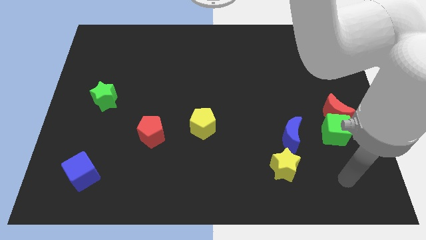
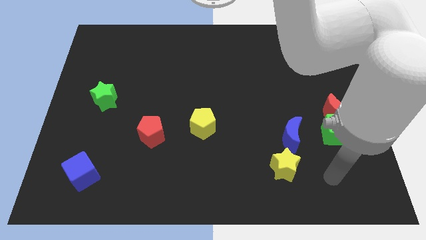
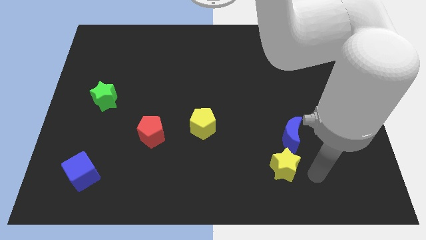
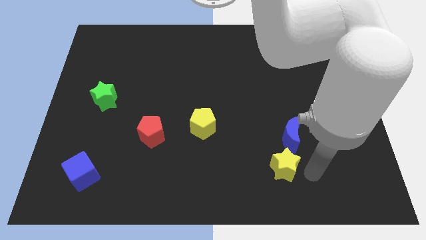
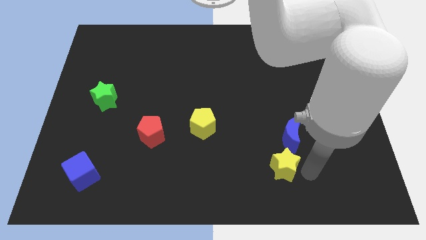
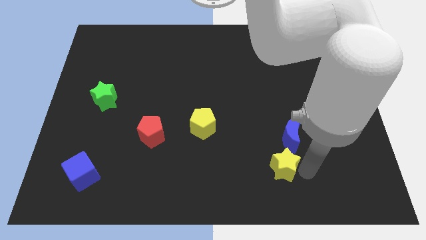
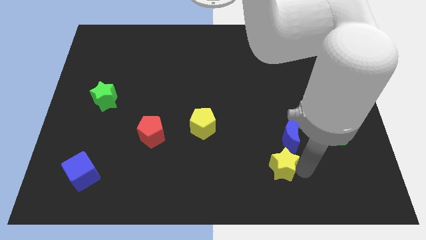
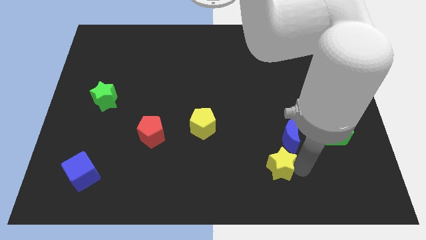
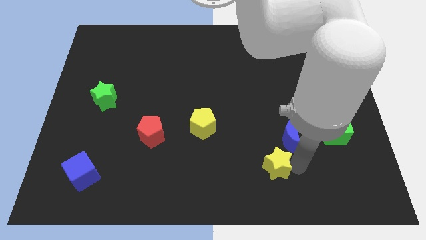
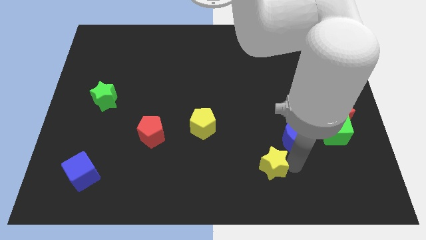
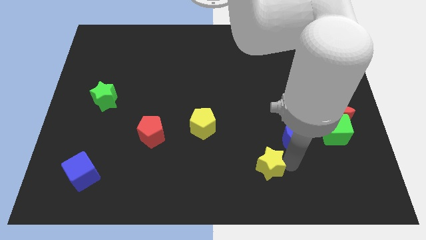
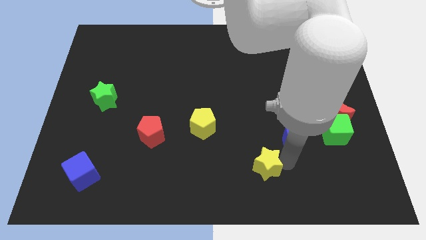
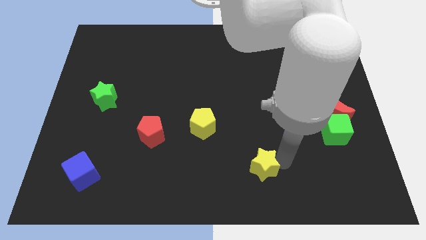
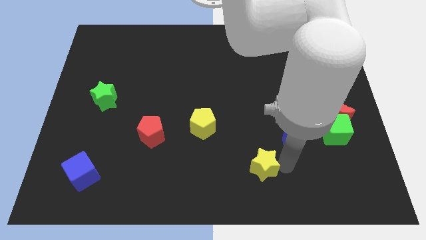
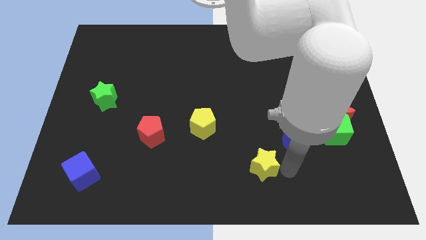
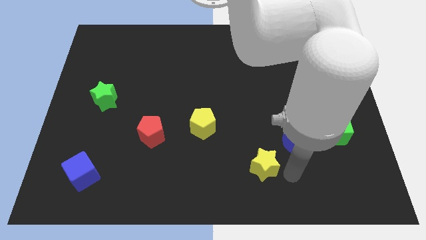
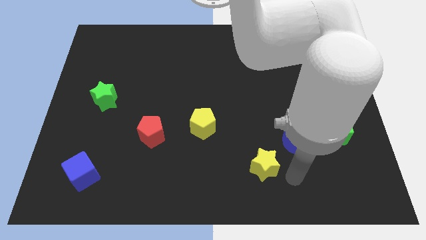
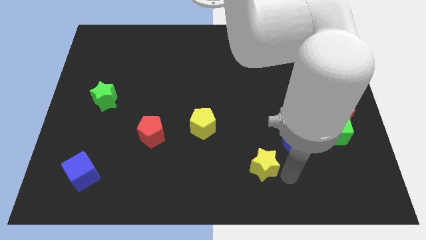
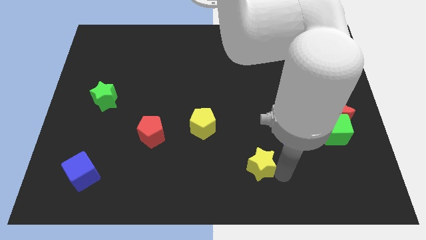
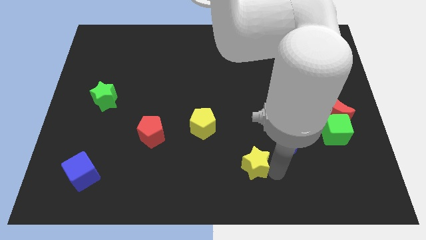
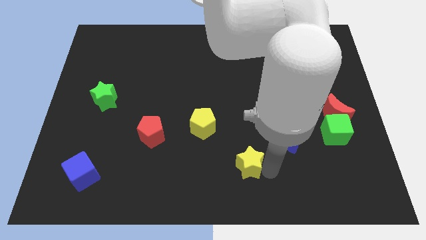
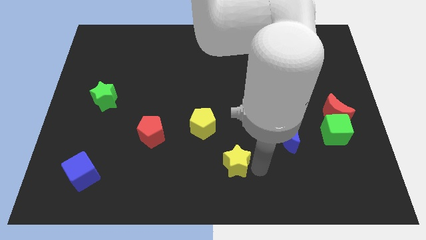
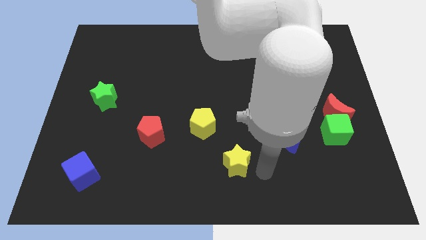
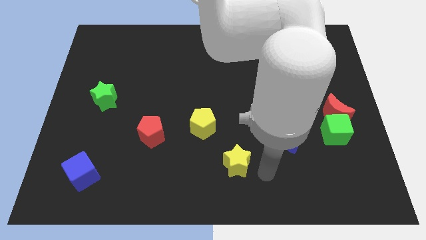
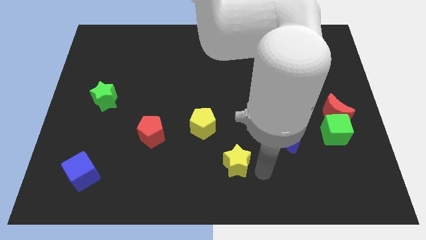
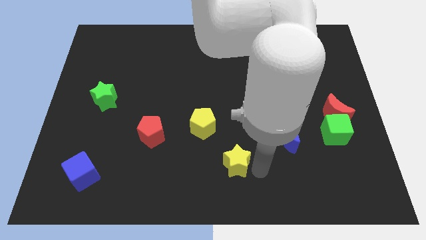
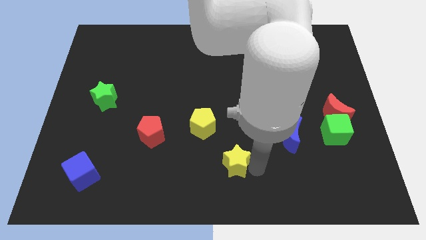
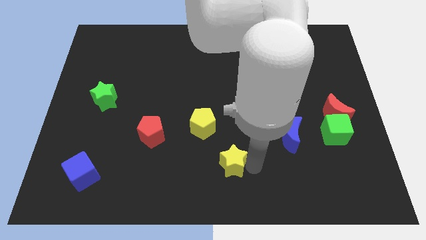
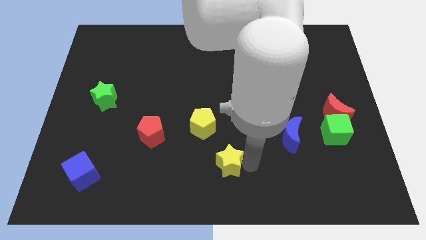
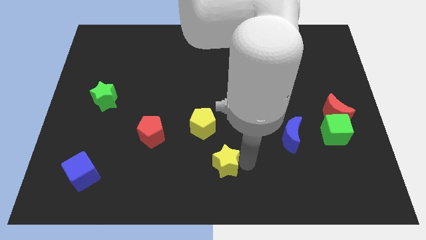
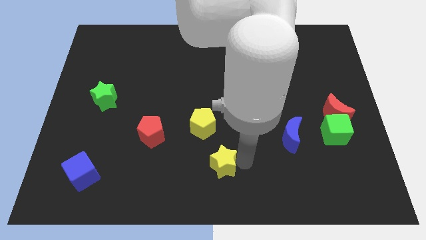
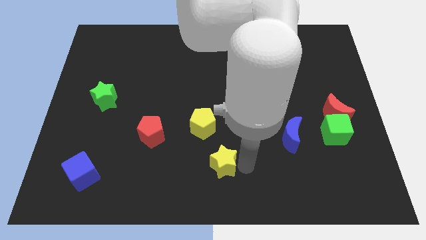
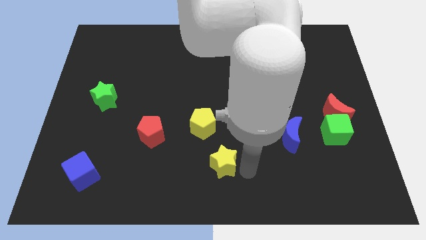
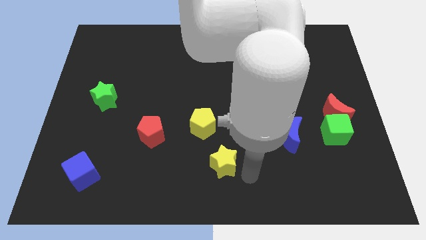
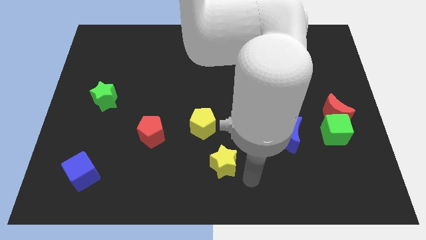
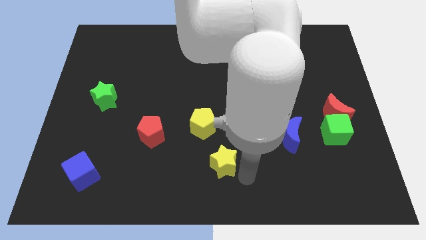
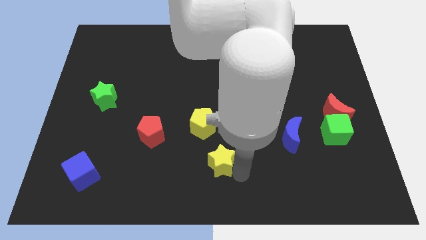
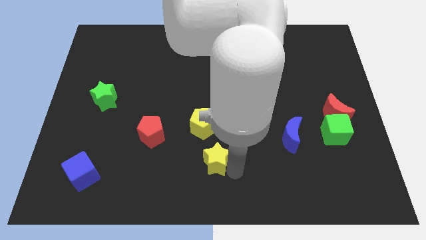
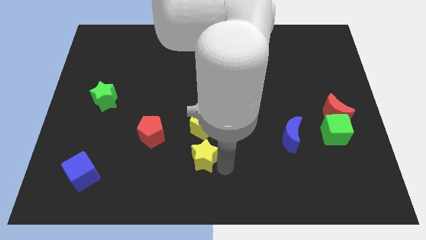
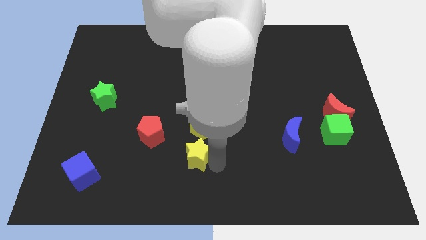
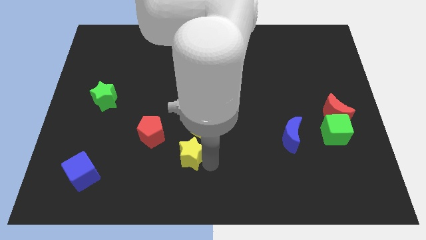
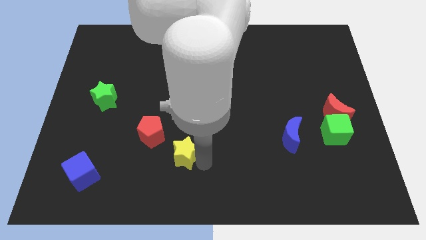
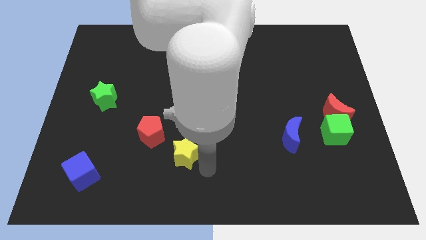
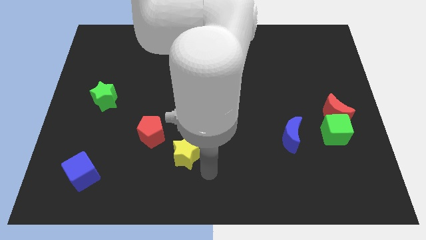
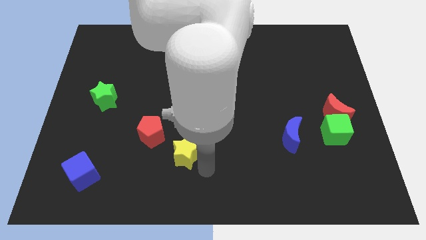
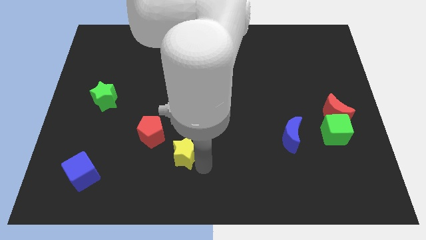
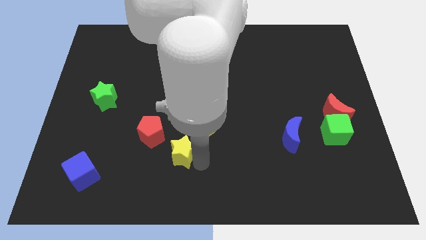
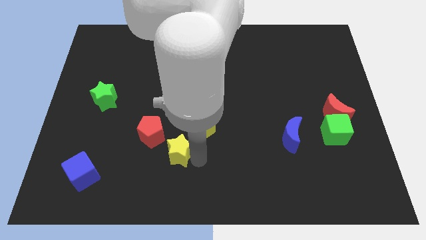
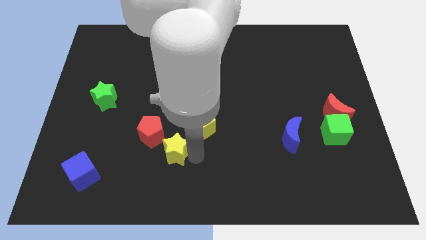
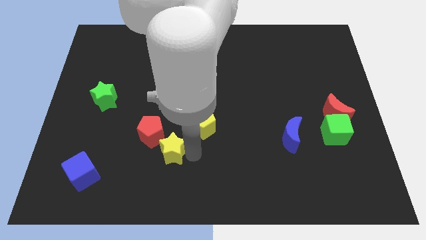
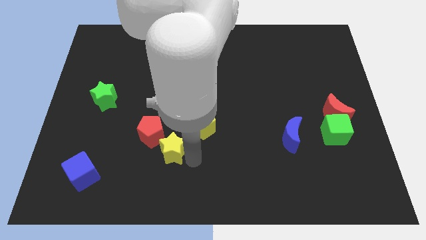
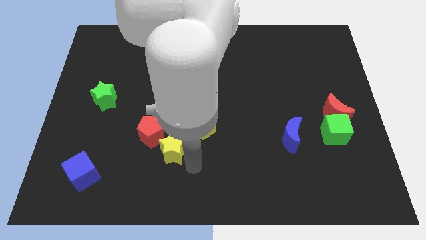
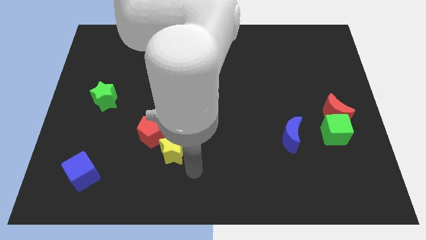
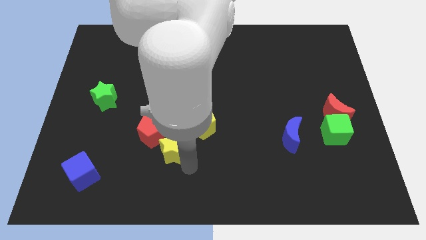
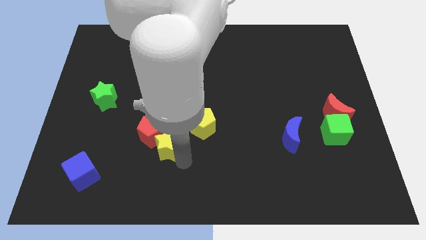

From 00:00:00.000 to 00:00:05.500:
slide the yellow star close to the red pentagon

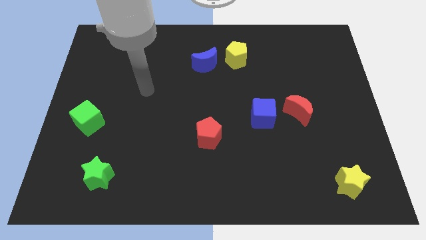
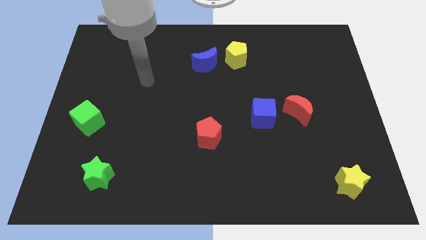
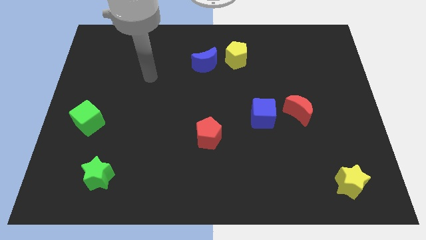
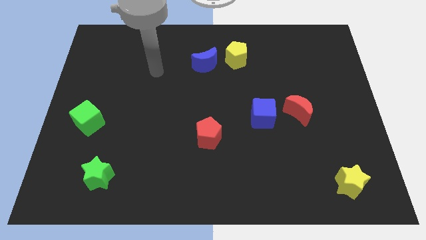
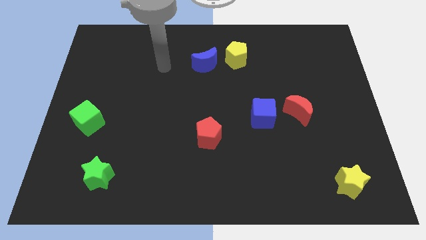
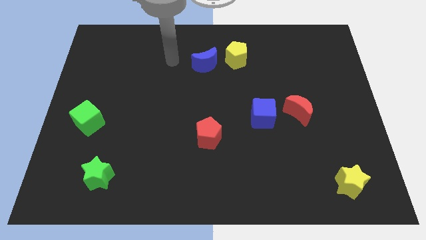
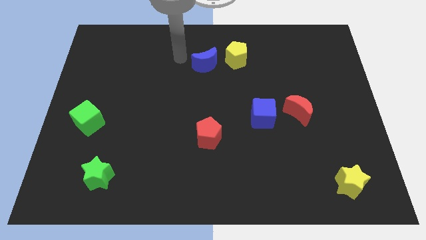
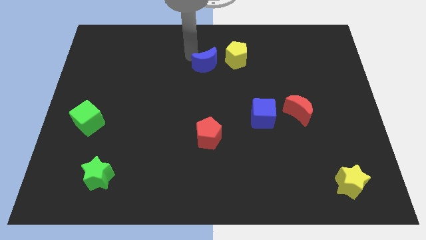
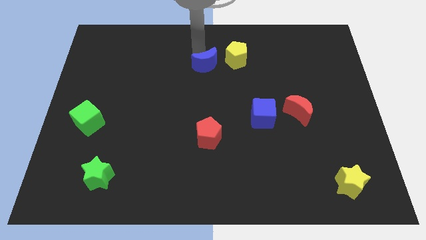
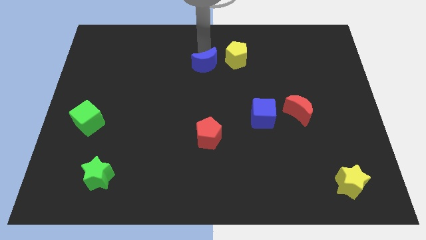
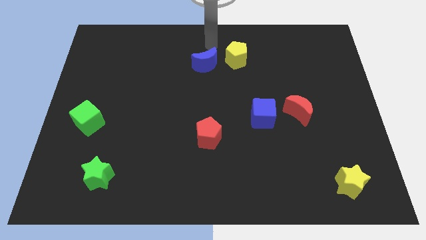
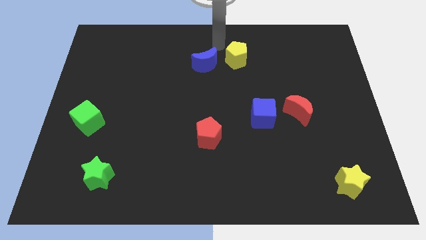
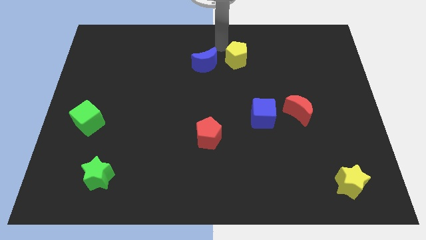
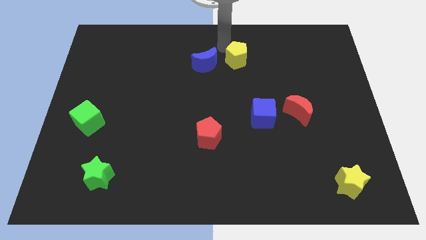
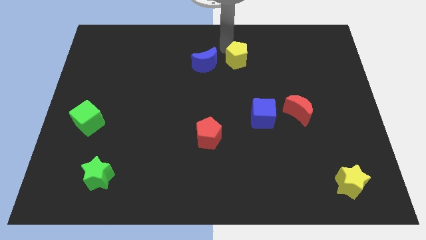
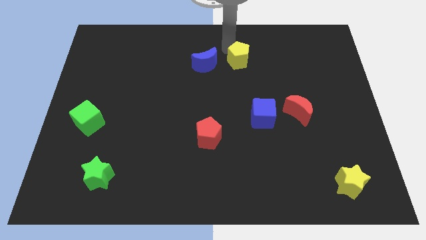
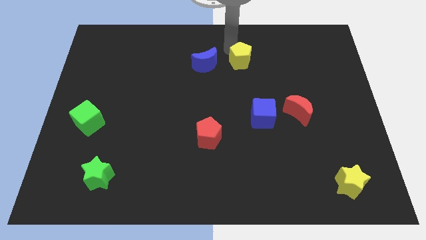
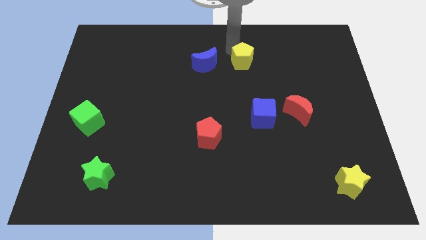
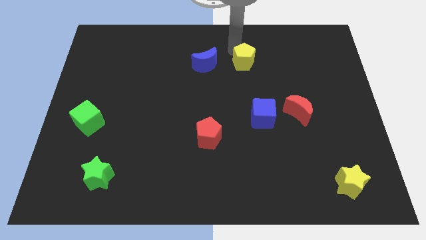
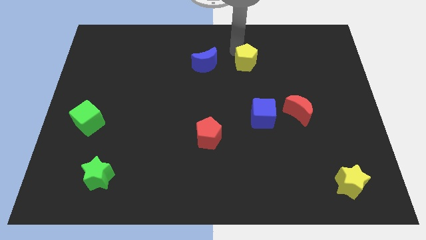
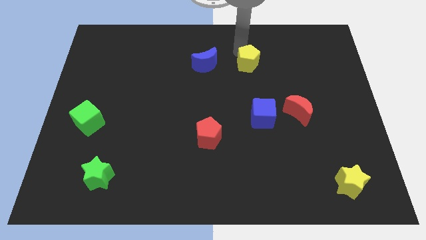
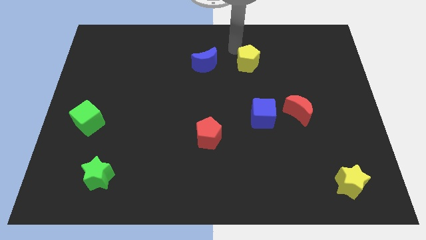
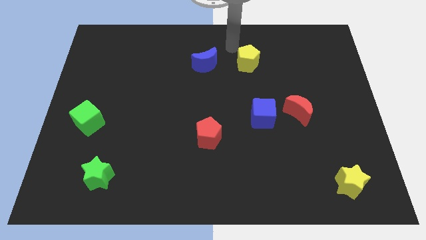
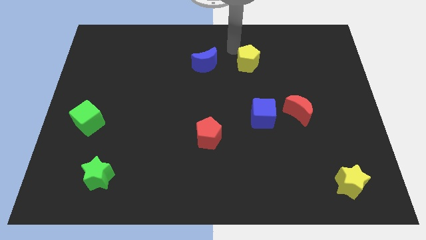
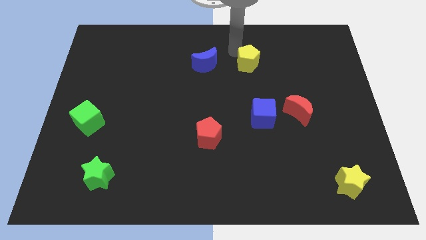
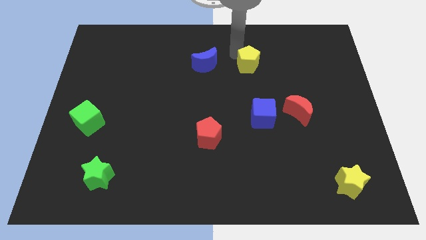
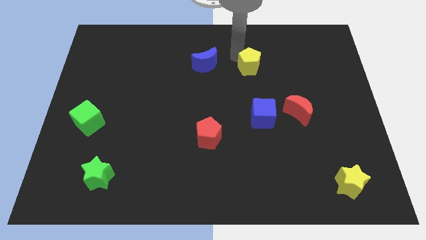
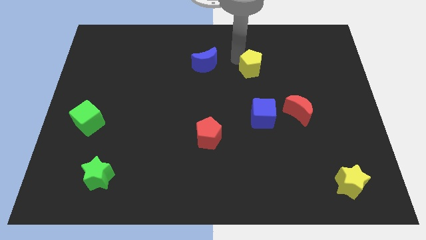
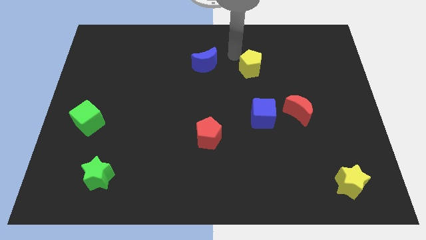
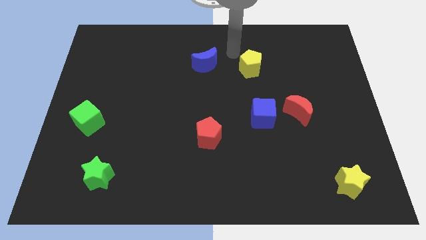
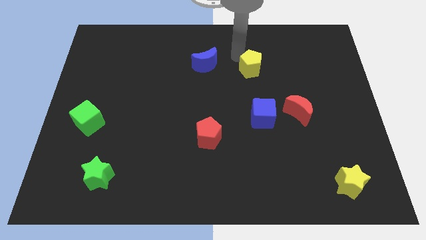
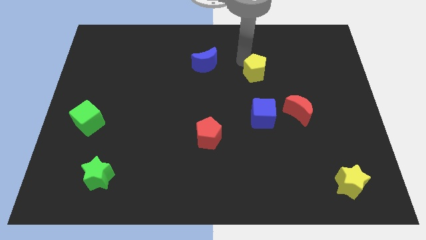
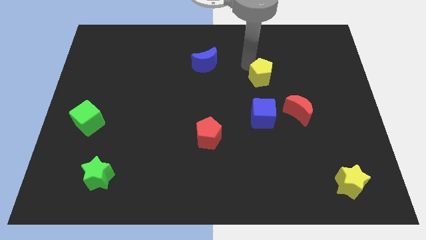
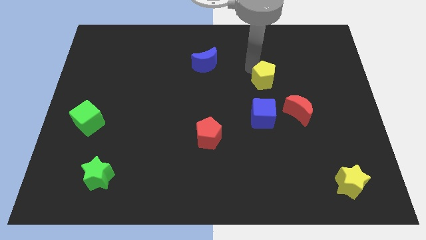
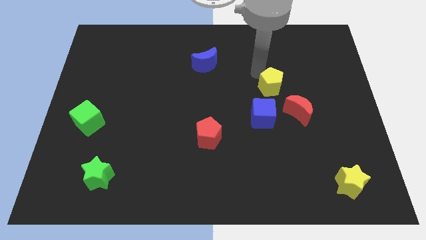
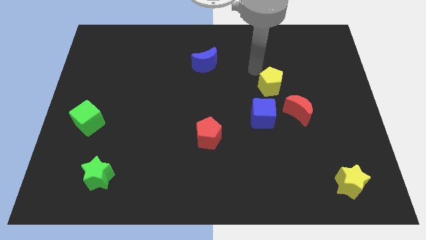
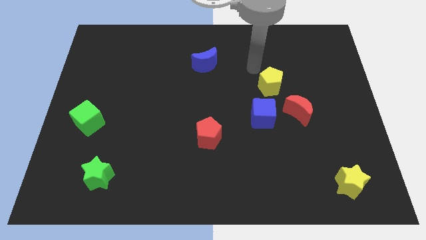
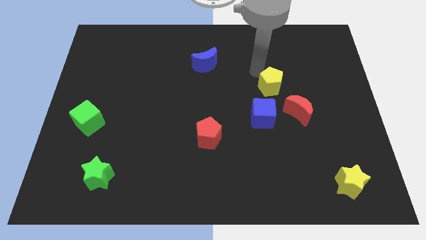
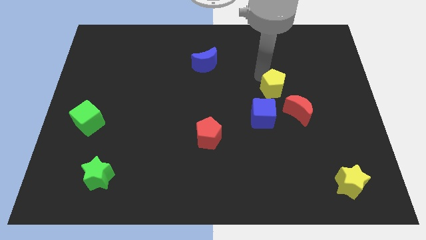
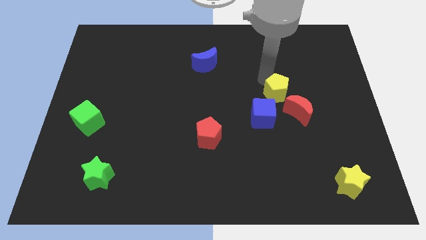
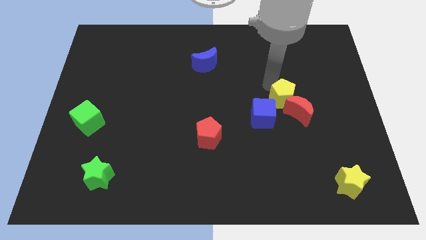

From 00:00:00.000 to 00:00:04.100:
put the yellow pentagon towards the red moon
